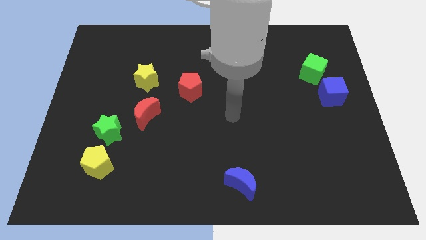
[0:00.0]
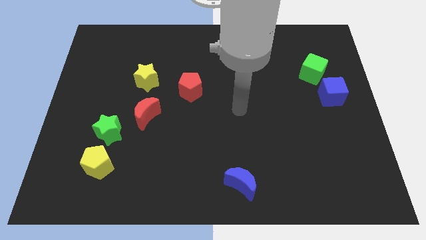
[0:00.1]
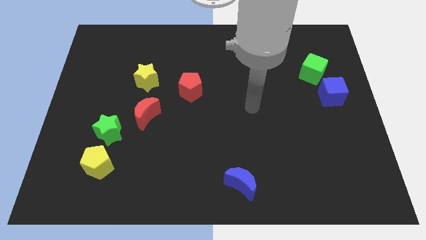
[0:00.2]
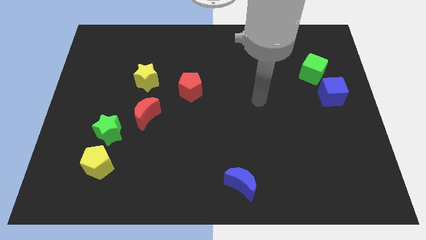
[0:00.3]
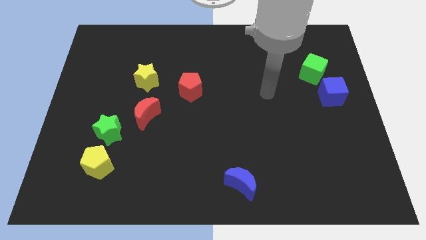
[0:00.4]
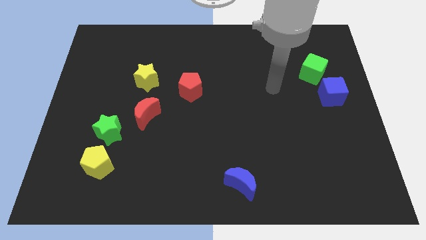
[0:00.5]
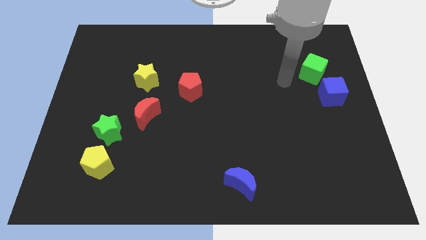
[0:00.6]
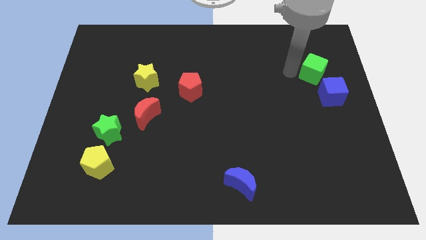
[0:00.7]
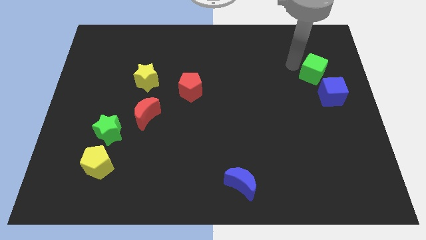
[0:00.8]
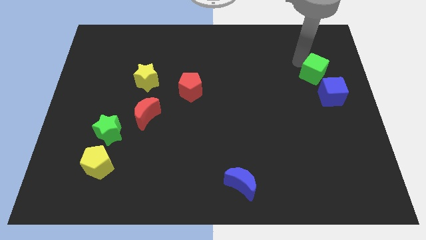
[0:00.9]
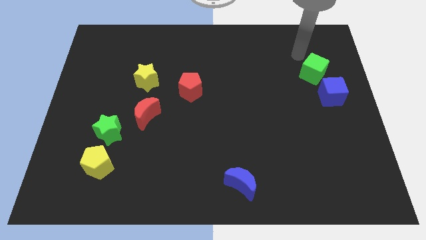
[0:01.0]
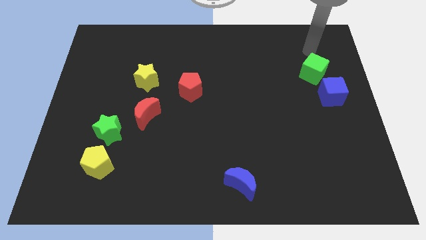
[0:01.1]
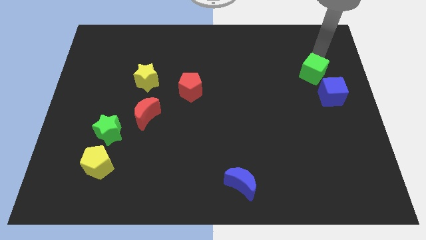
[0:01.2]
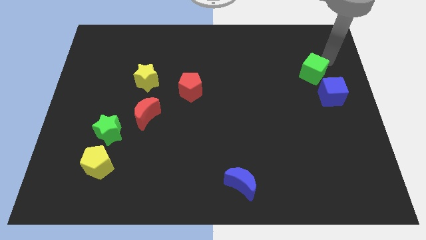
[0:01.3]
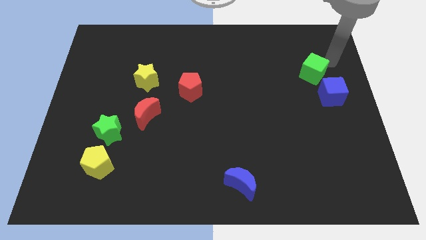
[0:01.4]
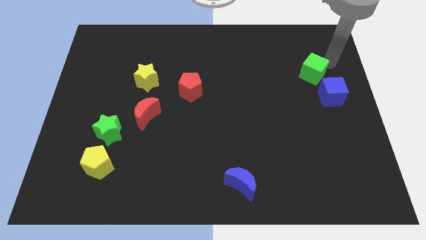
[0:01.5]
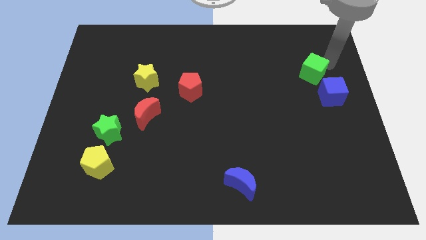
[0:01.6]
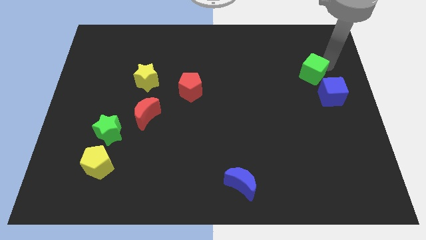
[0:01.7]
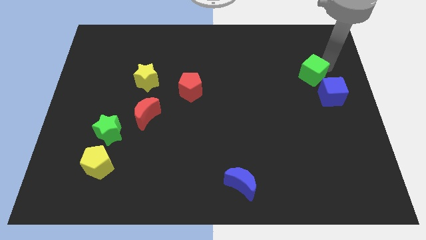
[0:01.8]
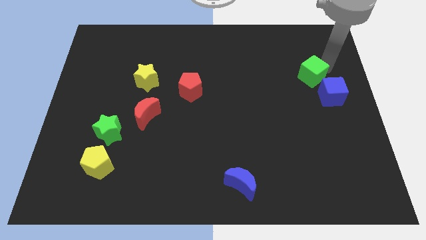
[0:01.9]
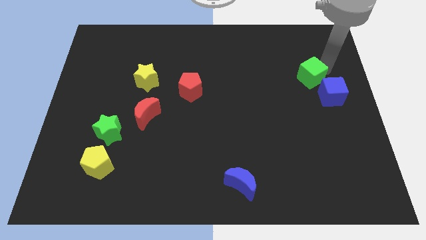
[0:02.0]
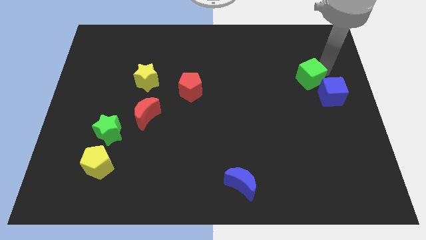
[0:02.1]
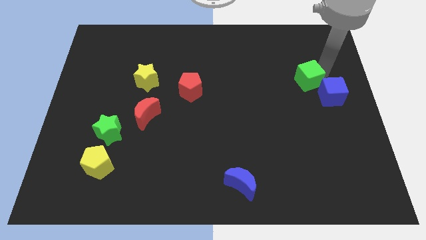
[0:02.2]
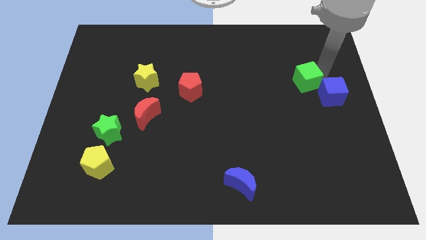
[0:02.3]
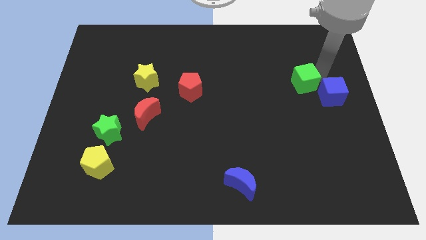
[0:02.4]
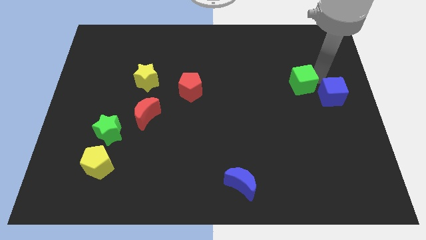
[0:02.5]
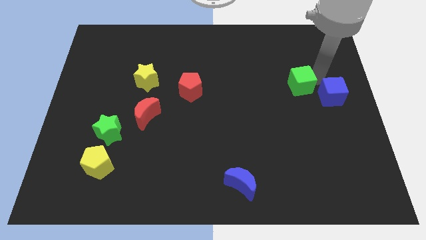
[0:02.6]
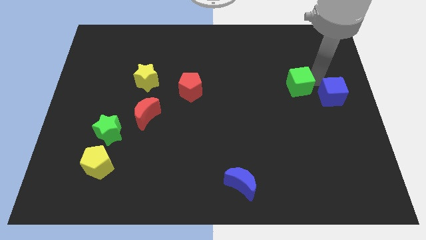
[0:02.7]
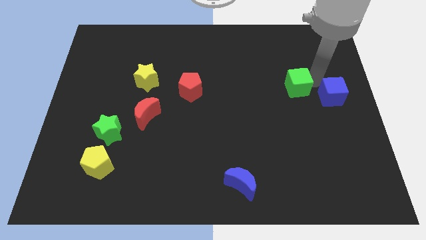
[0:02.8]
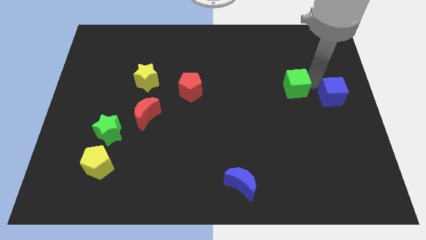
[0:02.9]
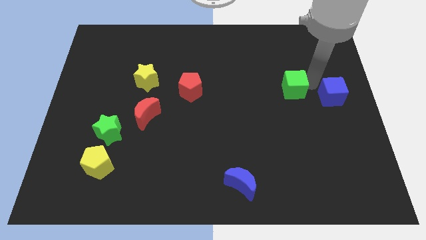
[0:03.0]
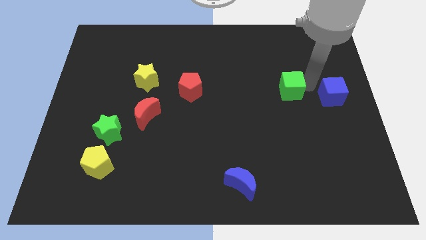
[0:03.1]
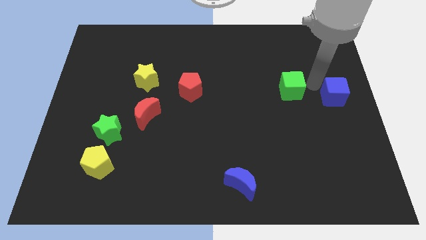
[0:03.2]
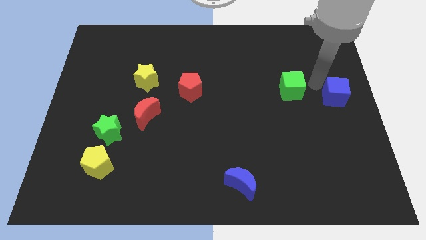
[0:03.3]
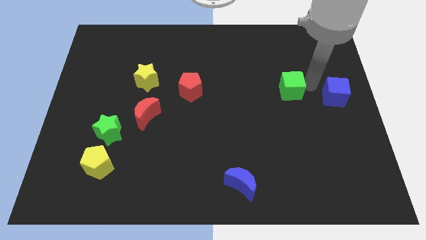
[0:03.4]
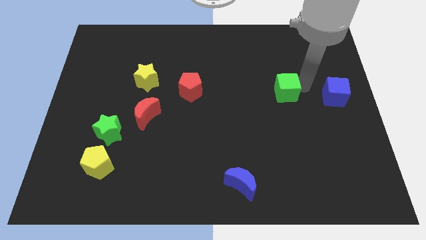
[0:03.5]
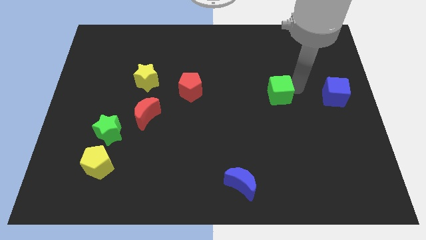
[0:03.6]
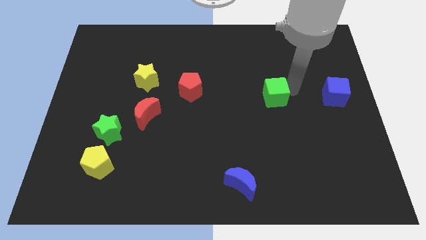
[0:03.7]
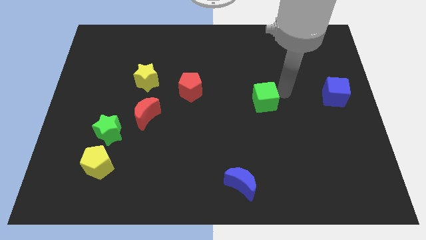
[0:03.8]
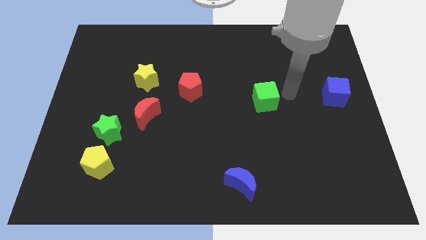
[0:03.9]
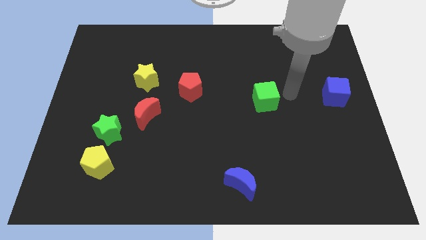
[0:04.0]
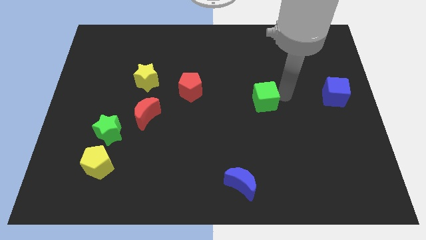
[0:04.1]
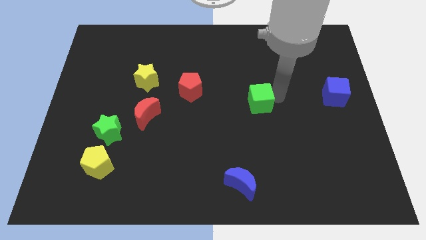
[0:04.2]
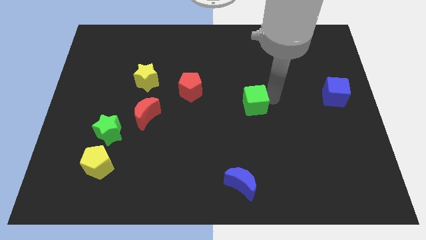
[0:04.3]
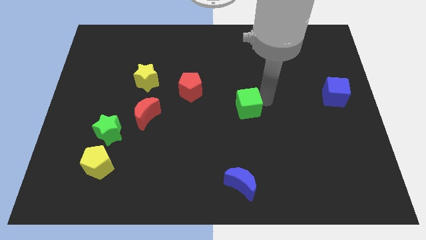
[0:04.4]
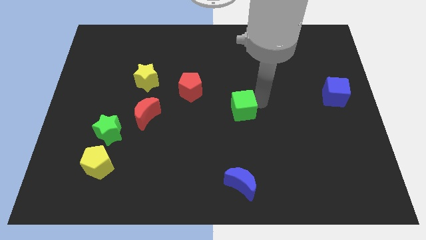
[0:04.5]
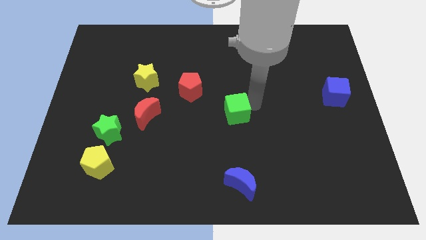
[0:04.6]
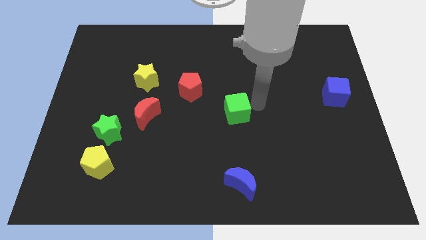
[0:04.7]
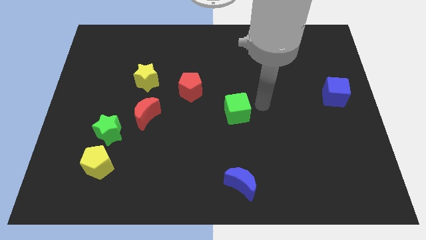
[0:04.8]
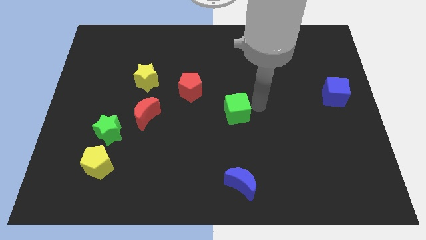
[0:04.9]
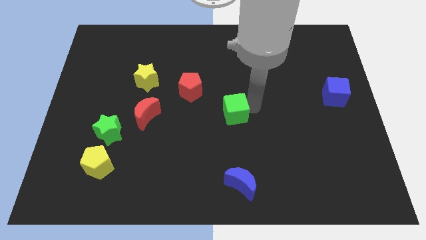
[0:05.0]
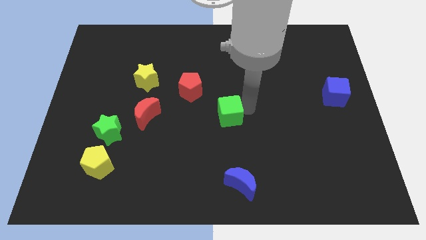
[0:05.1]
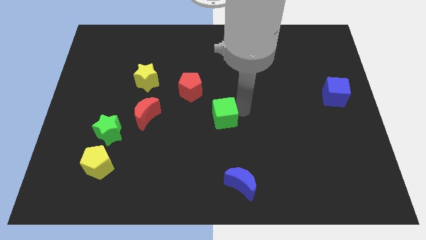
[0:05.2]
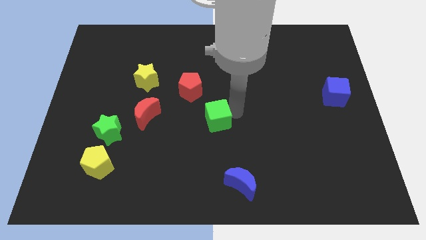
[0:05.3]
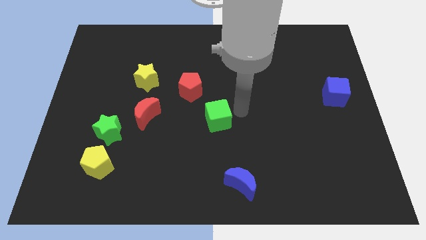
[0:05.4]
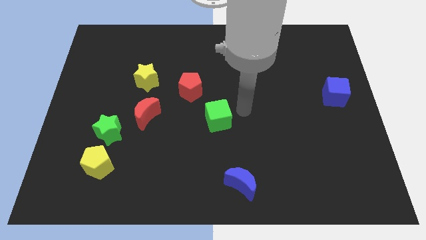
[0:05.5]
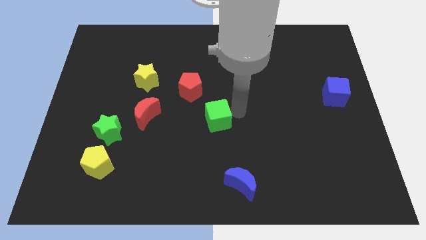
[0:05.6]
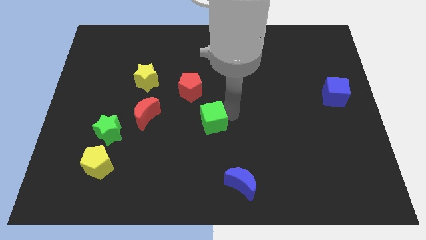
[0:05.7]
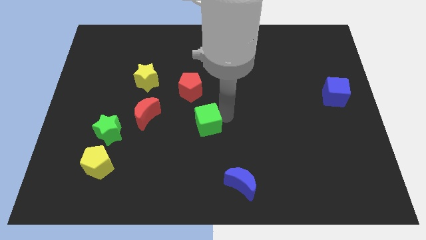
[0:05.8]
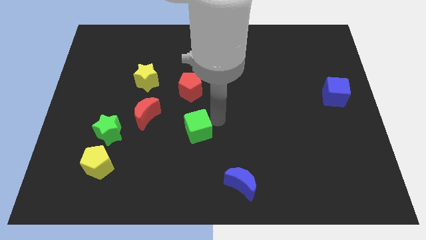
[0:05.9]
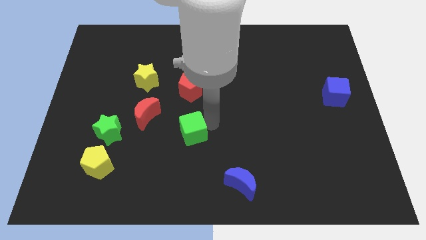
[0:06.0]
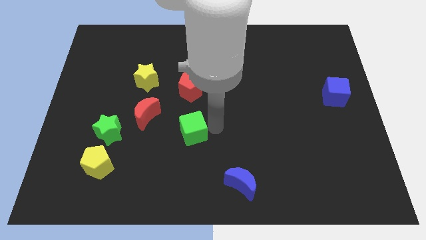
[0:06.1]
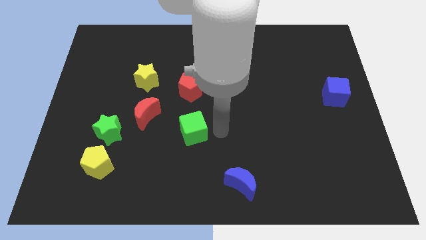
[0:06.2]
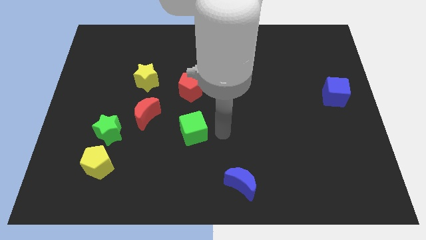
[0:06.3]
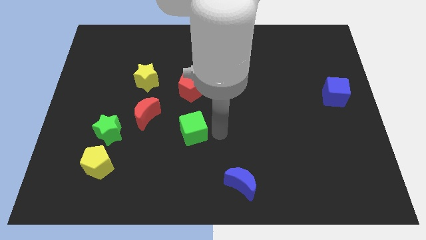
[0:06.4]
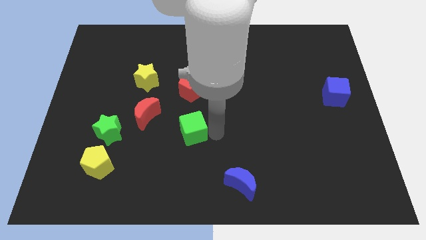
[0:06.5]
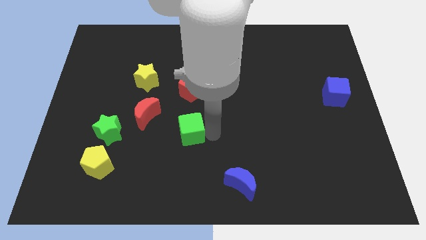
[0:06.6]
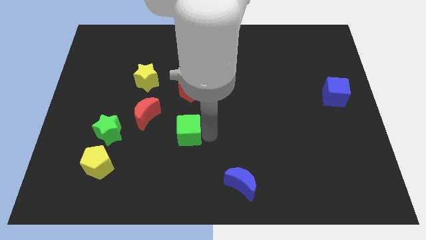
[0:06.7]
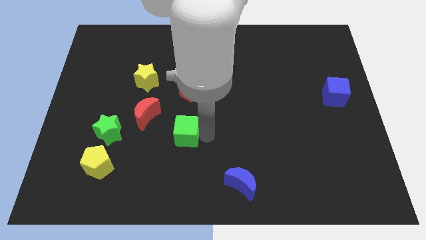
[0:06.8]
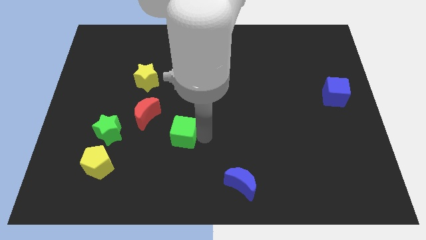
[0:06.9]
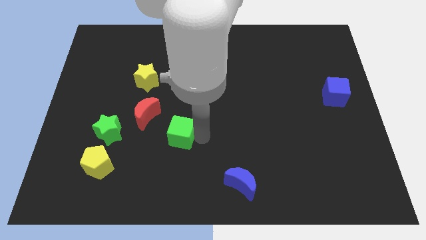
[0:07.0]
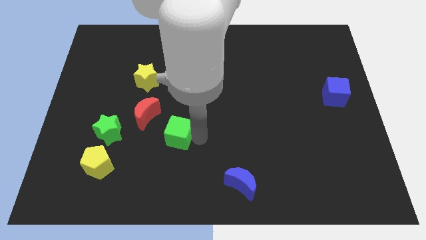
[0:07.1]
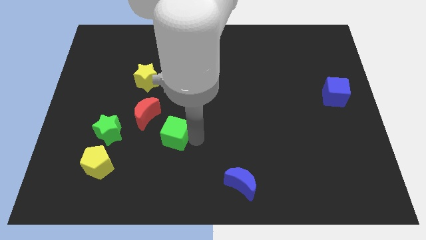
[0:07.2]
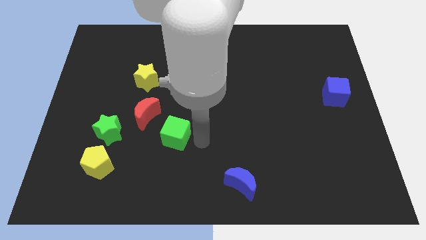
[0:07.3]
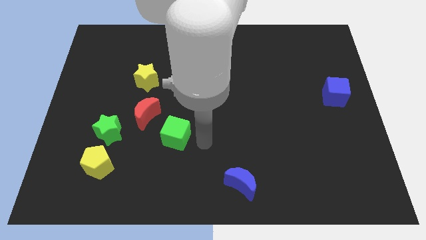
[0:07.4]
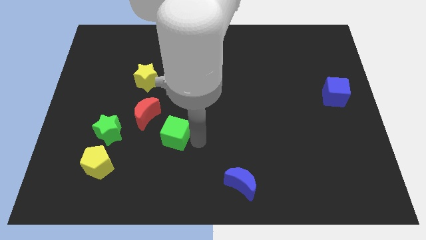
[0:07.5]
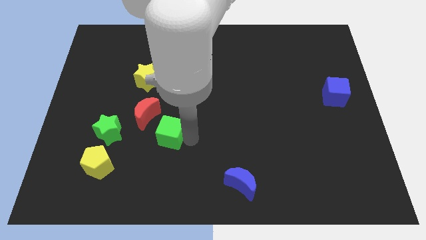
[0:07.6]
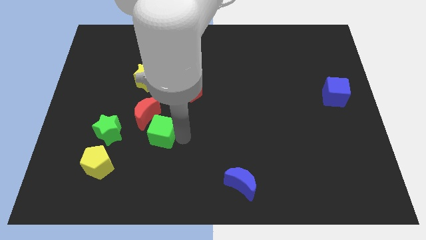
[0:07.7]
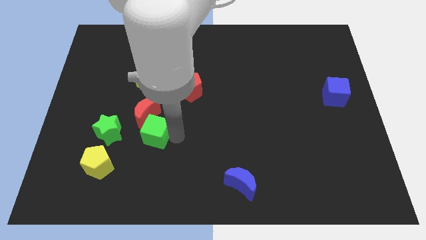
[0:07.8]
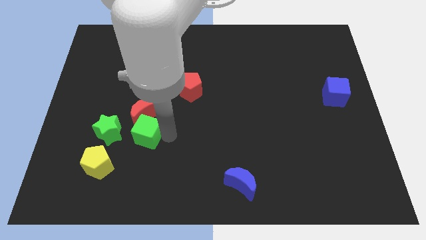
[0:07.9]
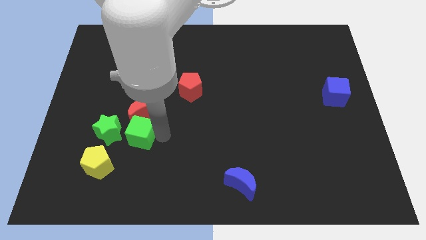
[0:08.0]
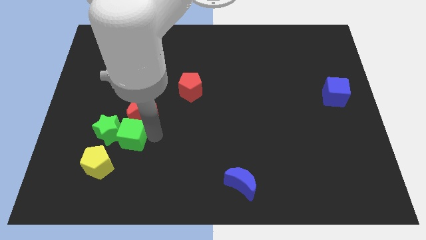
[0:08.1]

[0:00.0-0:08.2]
push the green cube towards the green star
